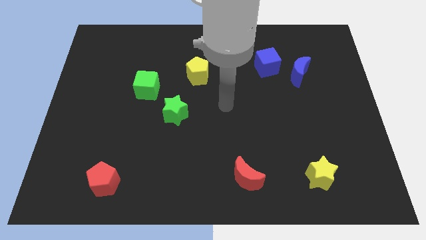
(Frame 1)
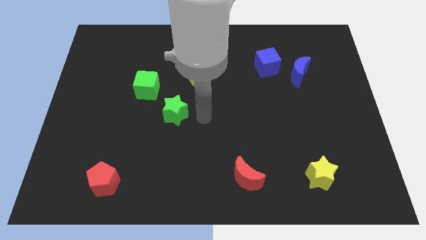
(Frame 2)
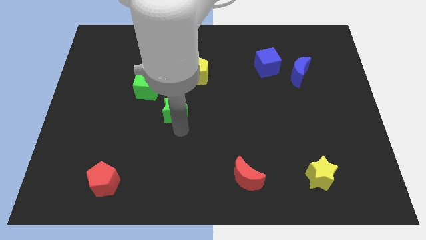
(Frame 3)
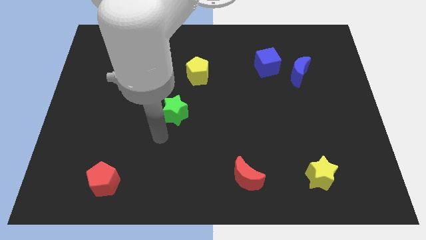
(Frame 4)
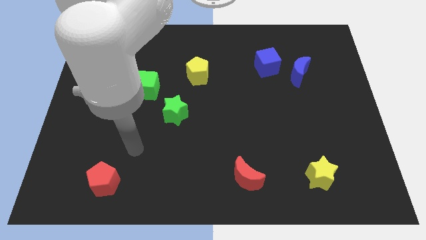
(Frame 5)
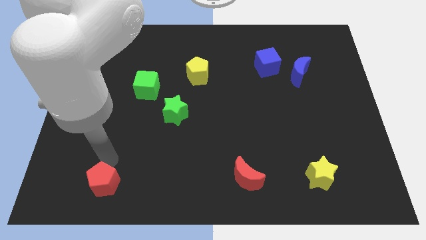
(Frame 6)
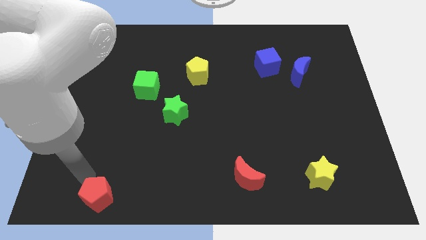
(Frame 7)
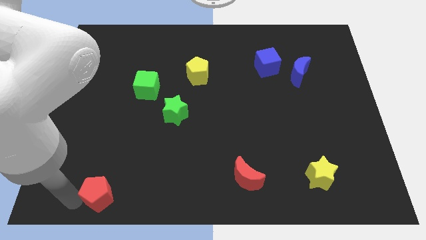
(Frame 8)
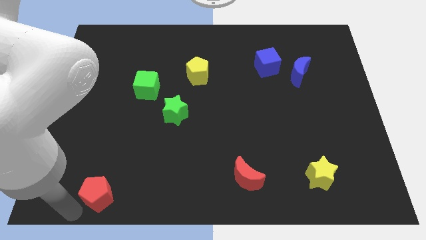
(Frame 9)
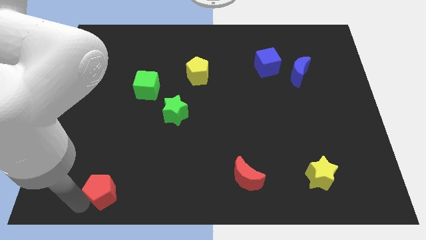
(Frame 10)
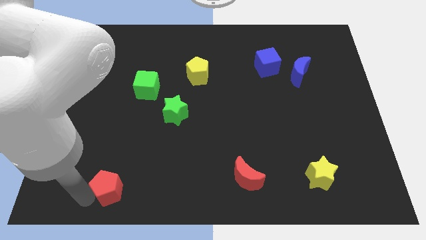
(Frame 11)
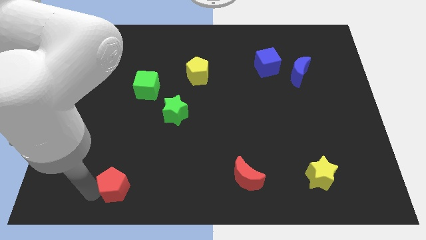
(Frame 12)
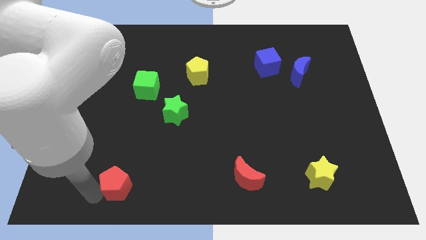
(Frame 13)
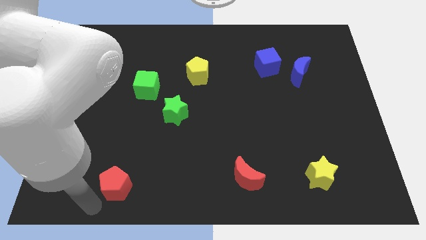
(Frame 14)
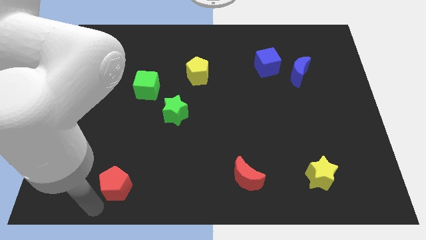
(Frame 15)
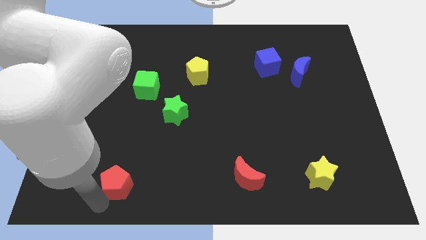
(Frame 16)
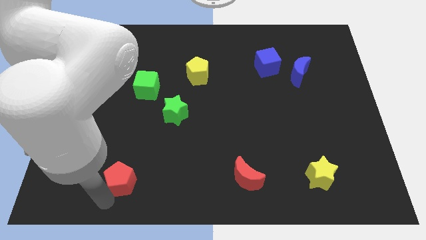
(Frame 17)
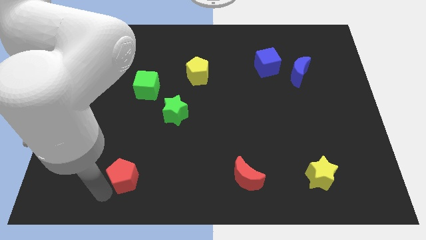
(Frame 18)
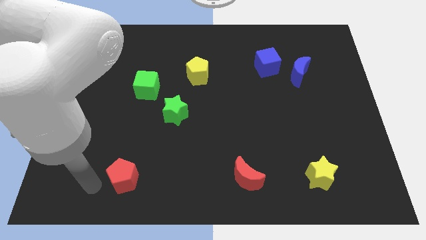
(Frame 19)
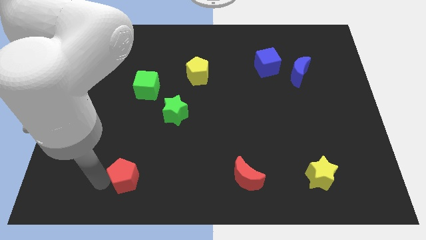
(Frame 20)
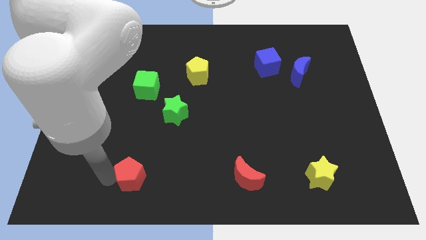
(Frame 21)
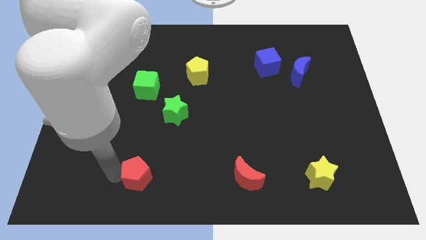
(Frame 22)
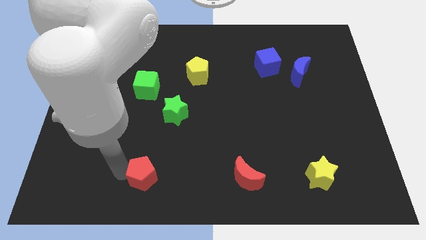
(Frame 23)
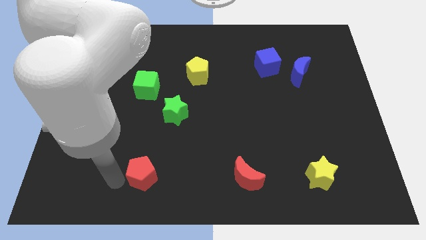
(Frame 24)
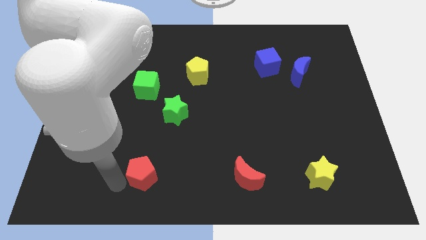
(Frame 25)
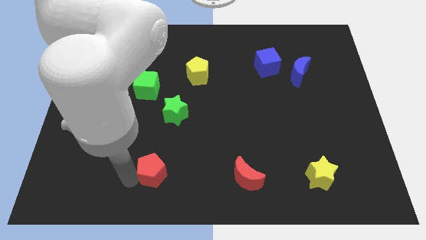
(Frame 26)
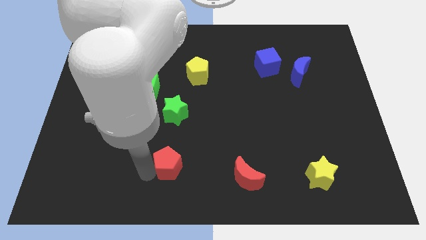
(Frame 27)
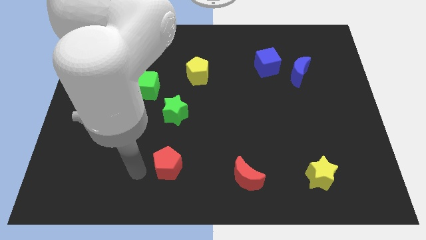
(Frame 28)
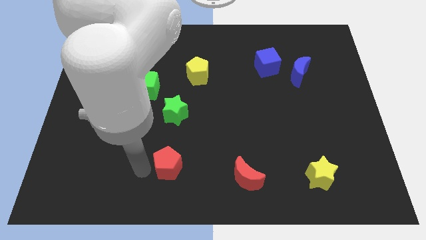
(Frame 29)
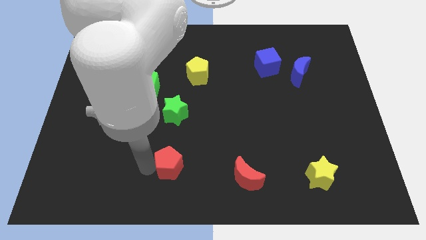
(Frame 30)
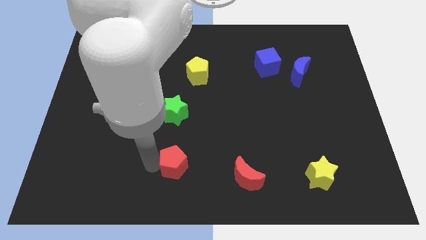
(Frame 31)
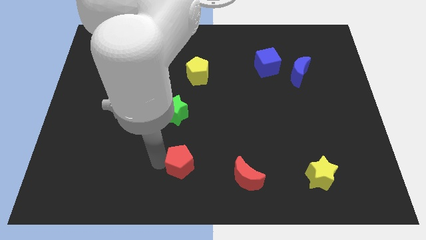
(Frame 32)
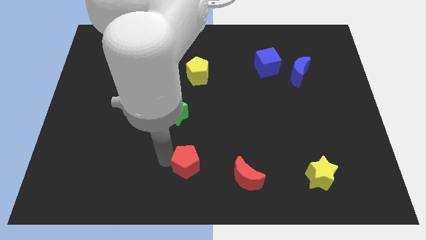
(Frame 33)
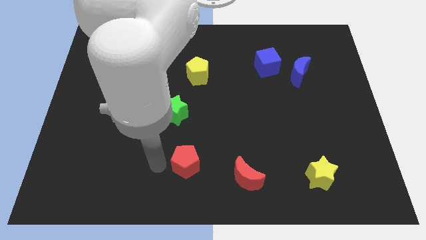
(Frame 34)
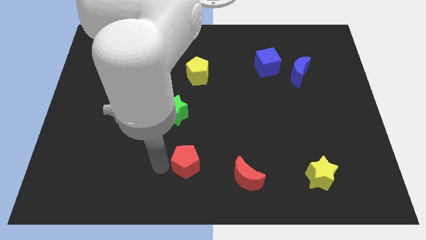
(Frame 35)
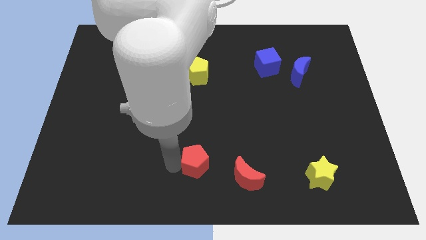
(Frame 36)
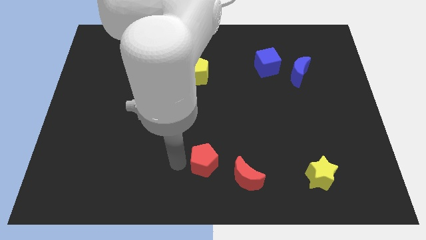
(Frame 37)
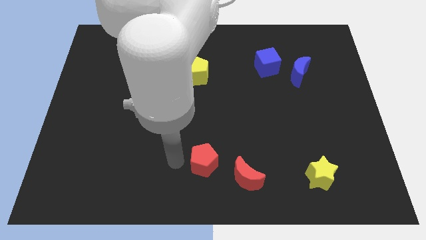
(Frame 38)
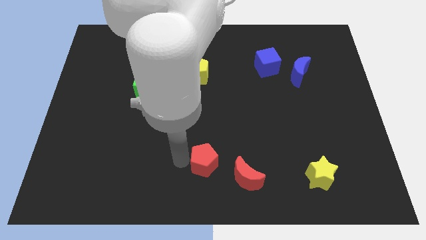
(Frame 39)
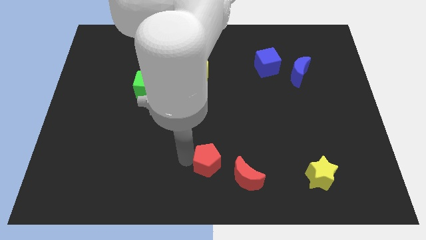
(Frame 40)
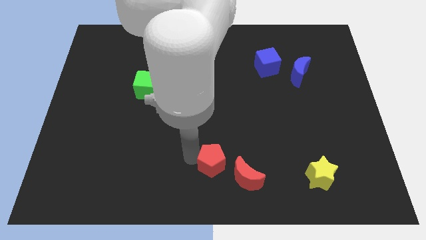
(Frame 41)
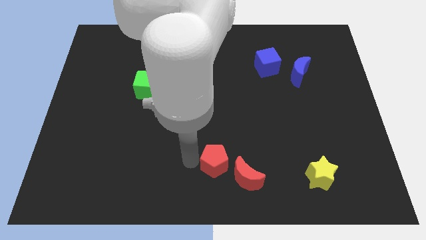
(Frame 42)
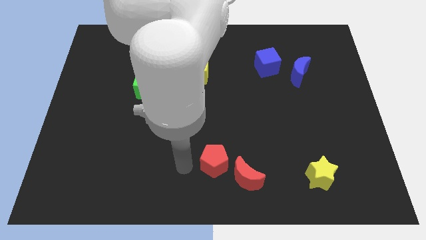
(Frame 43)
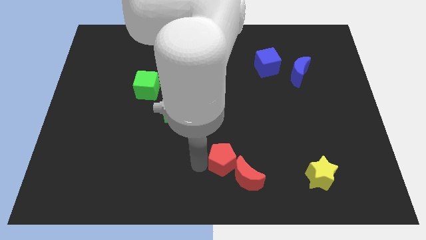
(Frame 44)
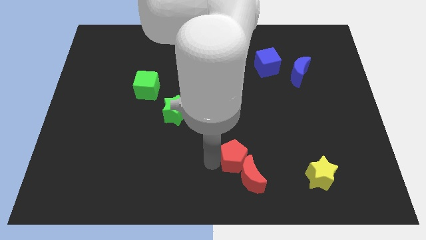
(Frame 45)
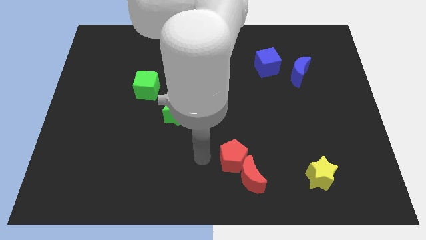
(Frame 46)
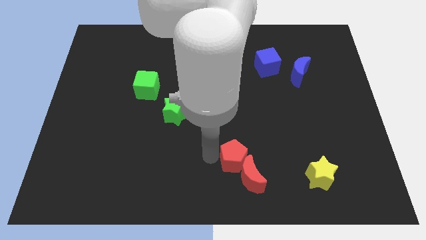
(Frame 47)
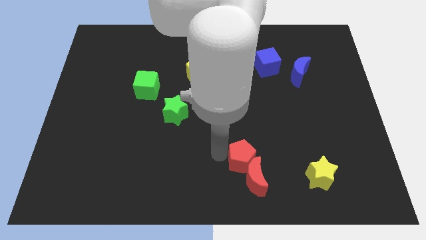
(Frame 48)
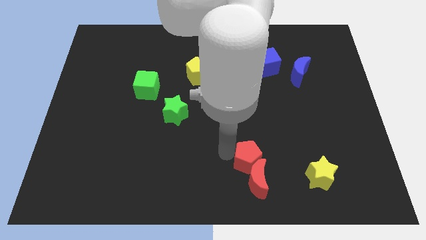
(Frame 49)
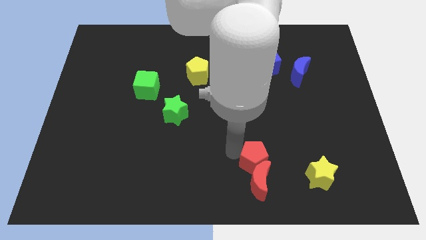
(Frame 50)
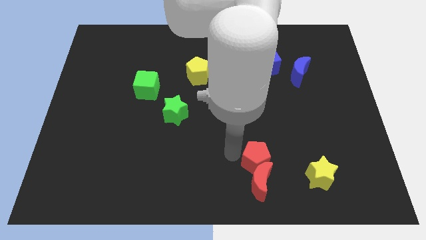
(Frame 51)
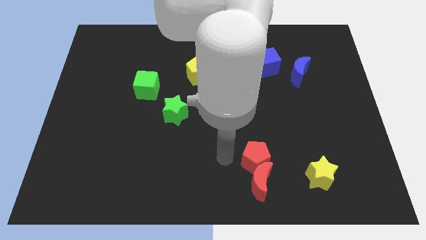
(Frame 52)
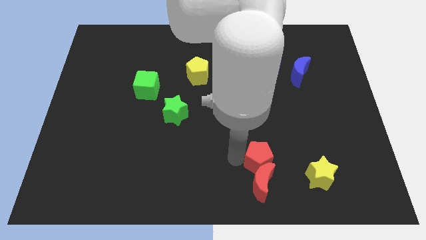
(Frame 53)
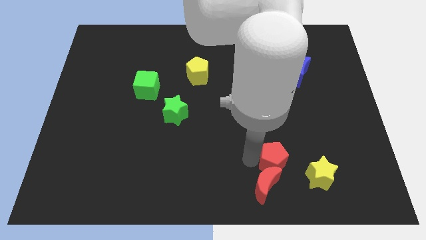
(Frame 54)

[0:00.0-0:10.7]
slide the red pentagon diagonally up and to the left of the yellow star

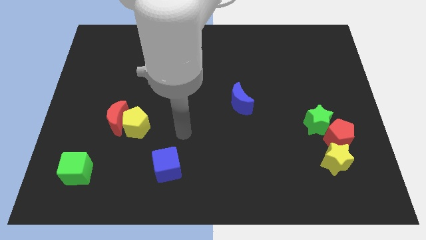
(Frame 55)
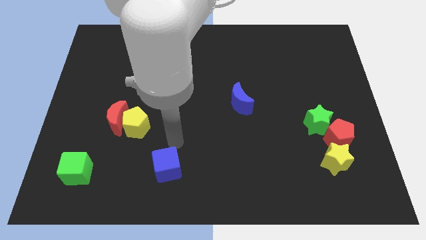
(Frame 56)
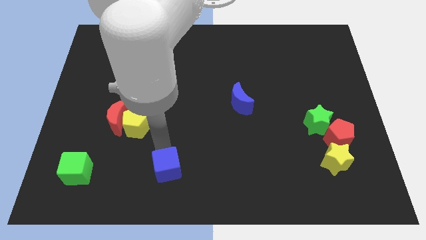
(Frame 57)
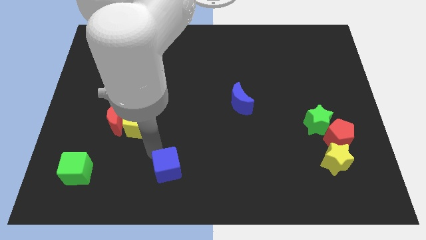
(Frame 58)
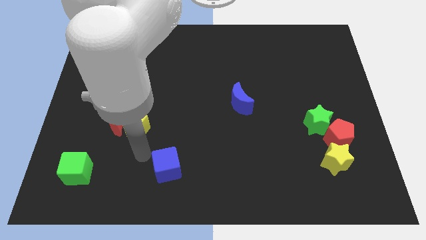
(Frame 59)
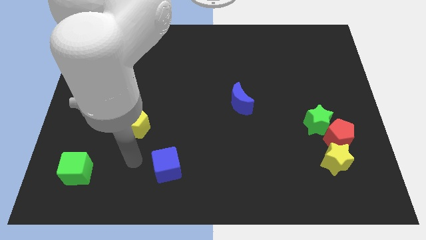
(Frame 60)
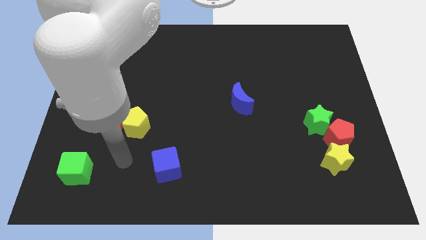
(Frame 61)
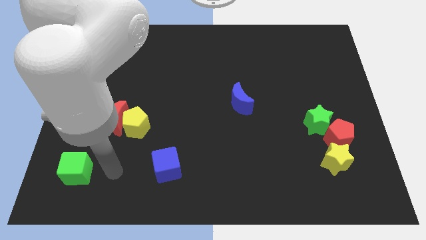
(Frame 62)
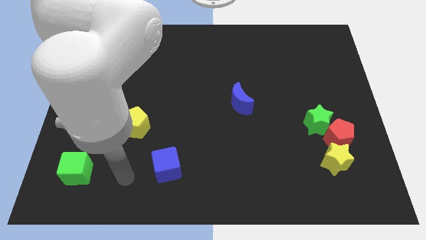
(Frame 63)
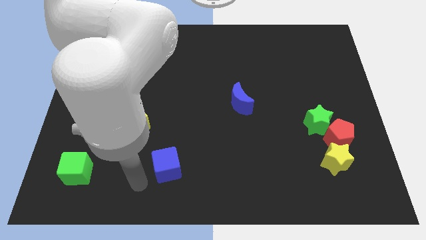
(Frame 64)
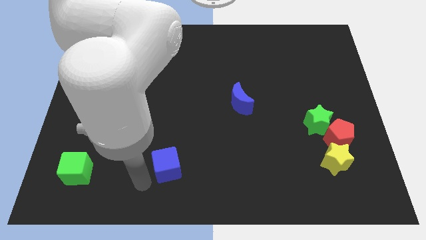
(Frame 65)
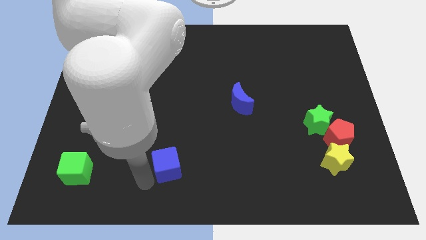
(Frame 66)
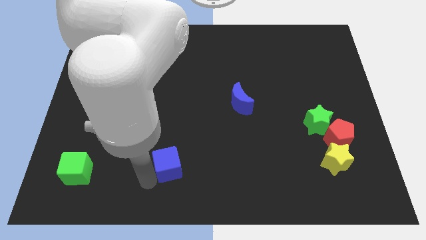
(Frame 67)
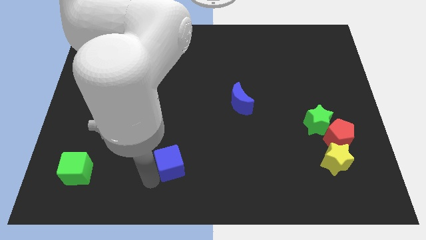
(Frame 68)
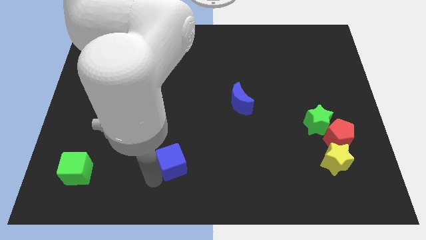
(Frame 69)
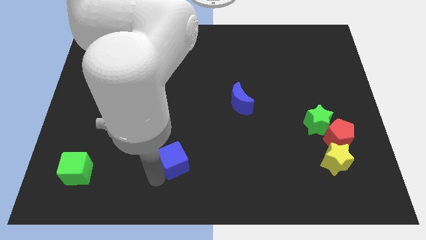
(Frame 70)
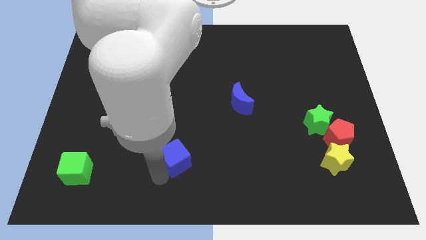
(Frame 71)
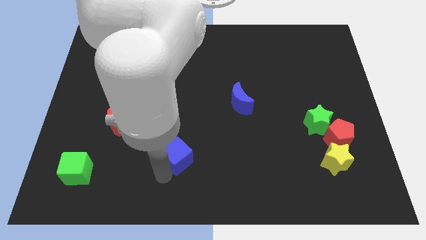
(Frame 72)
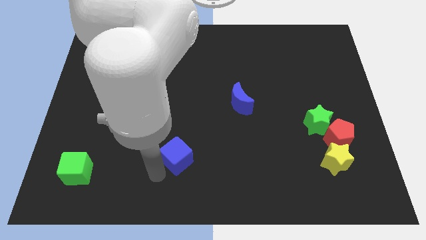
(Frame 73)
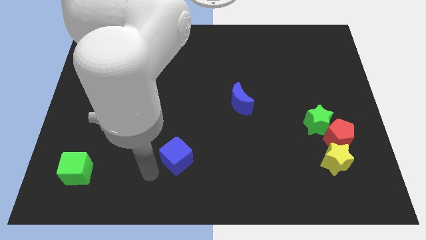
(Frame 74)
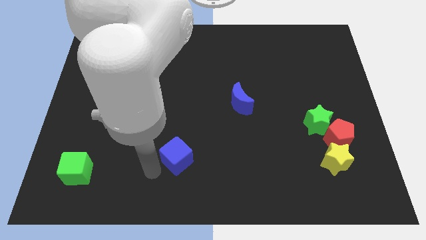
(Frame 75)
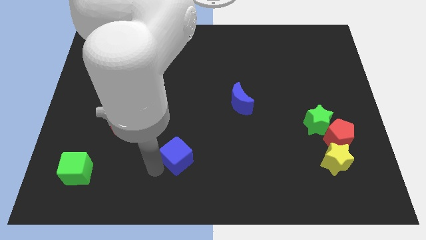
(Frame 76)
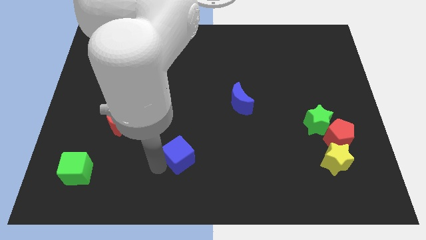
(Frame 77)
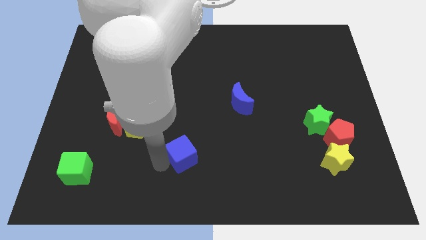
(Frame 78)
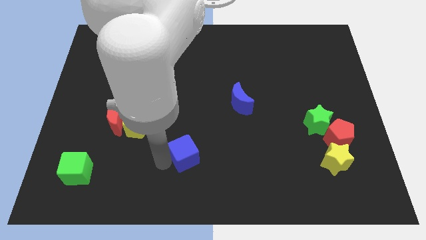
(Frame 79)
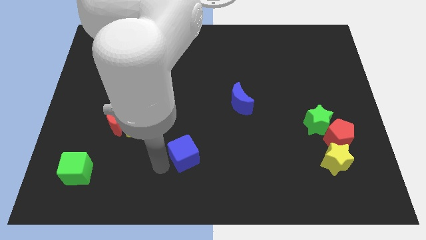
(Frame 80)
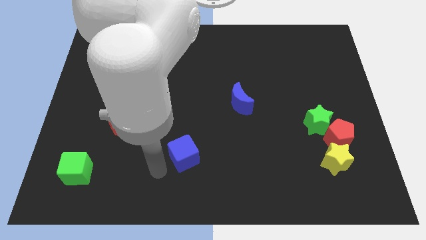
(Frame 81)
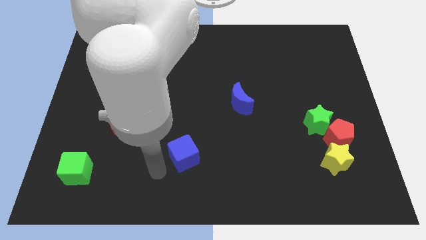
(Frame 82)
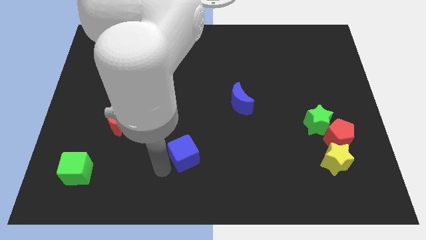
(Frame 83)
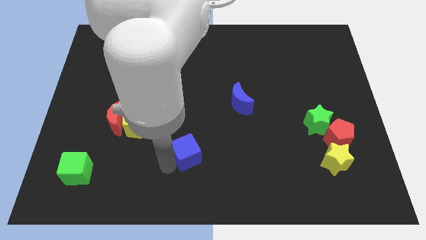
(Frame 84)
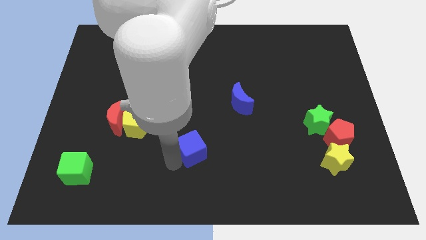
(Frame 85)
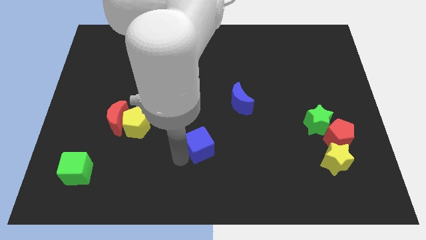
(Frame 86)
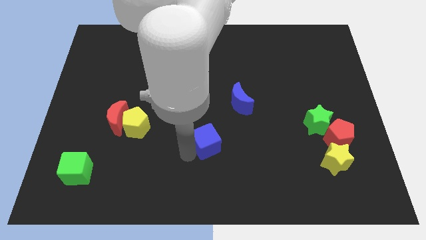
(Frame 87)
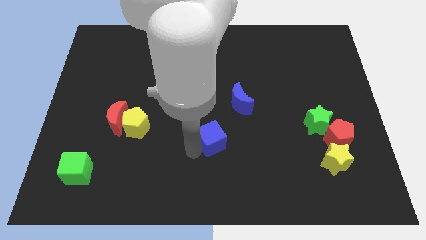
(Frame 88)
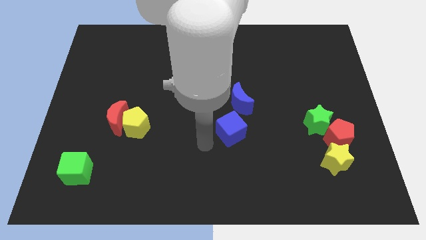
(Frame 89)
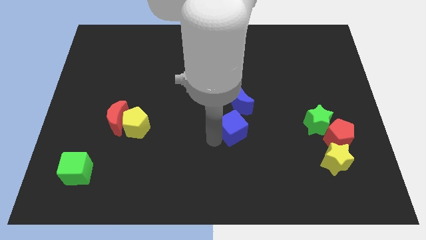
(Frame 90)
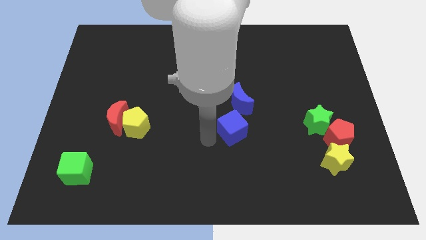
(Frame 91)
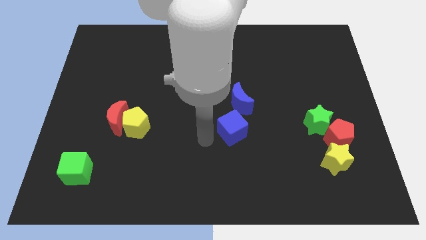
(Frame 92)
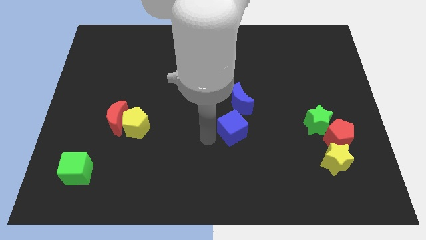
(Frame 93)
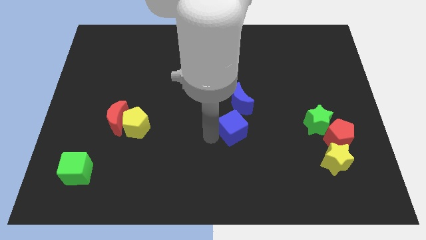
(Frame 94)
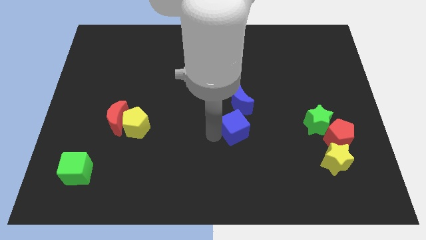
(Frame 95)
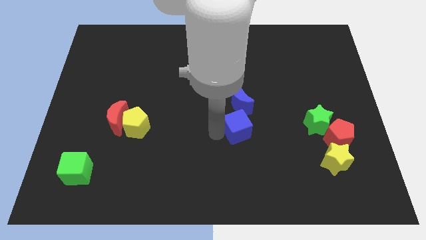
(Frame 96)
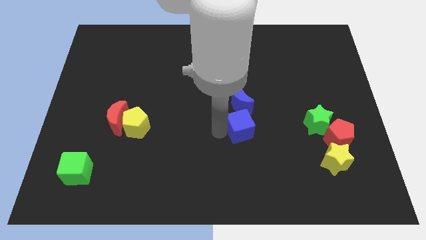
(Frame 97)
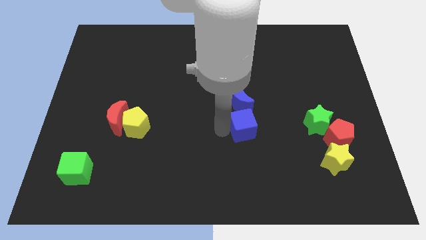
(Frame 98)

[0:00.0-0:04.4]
slide the blue cube diagonally down and to the right of the blue moon
